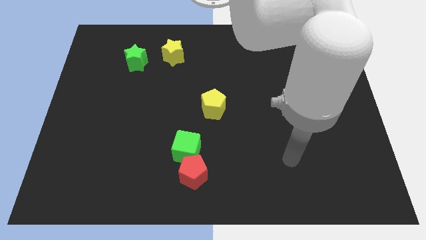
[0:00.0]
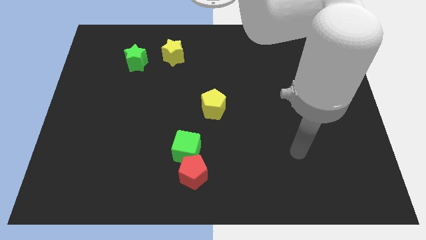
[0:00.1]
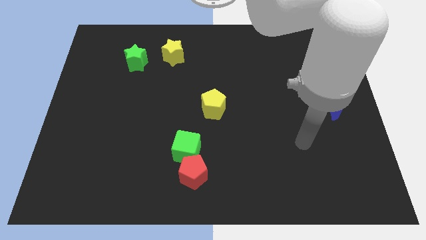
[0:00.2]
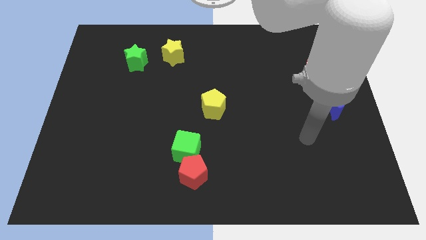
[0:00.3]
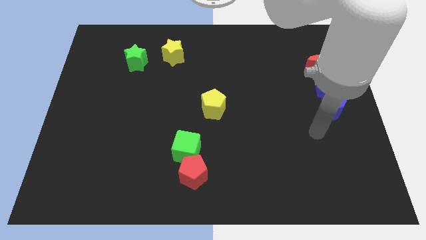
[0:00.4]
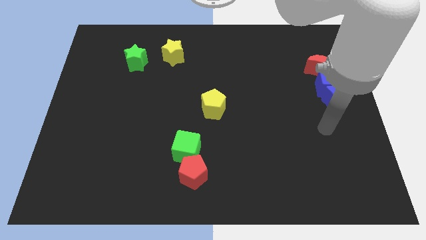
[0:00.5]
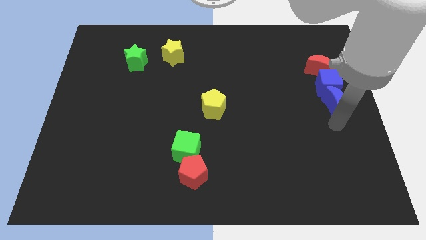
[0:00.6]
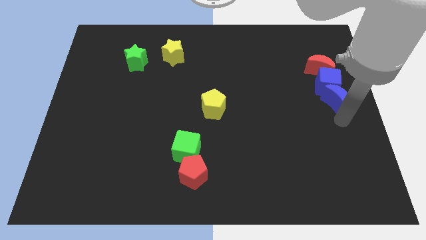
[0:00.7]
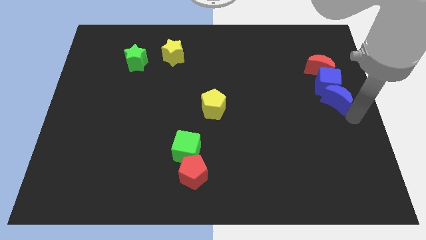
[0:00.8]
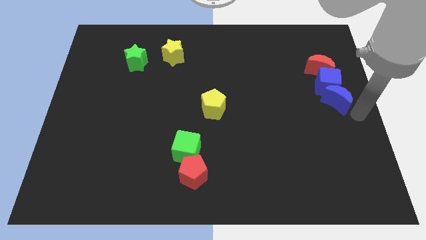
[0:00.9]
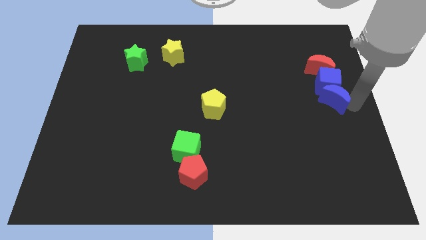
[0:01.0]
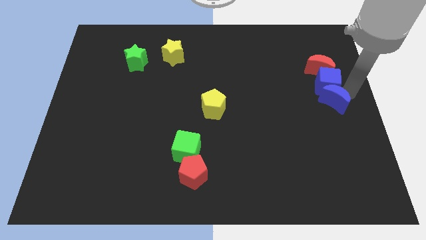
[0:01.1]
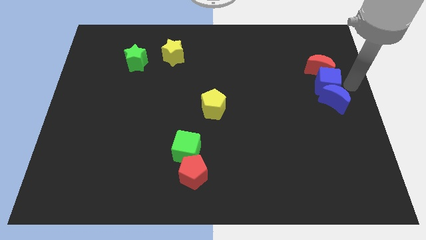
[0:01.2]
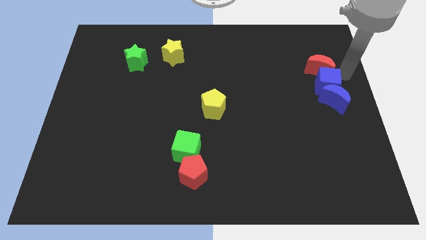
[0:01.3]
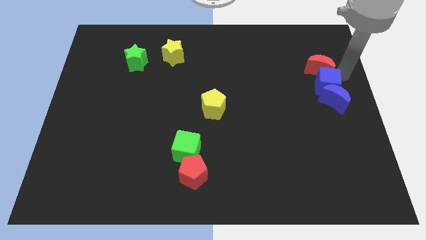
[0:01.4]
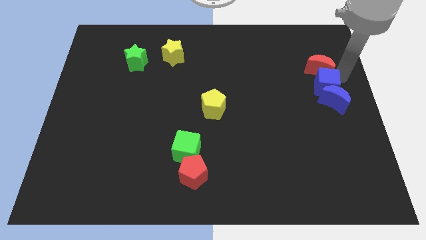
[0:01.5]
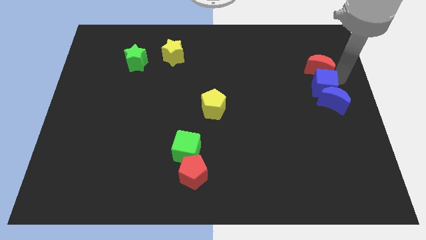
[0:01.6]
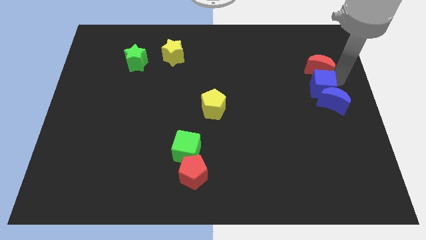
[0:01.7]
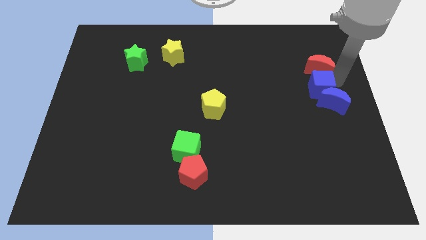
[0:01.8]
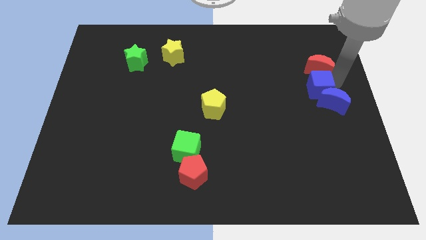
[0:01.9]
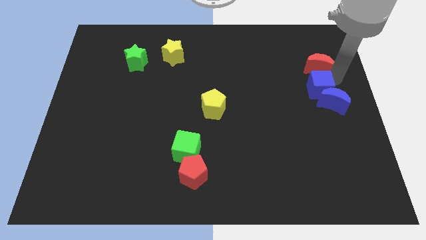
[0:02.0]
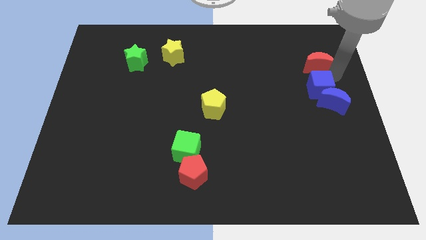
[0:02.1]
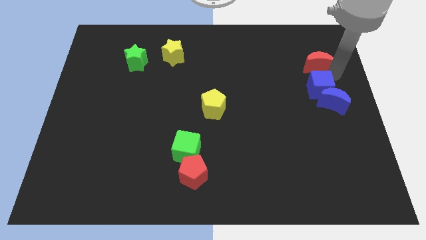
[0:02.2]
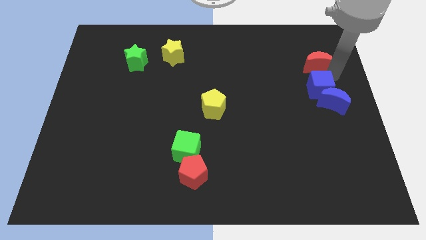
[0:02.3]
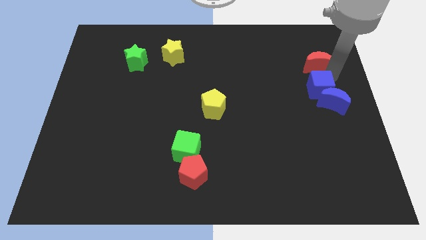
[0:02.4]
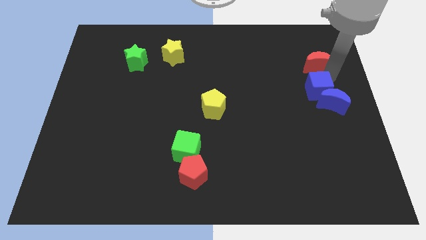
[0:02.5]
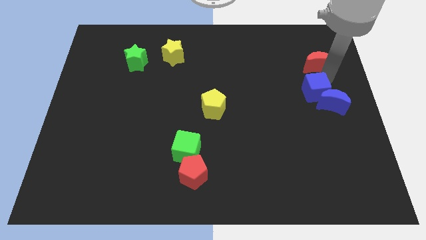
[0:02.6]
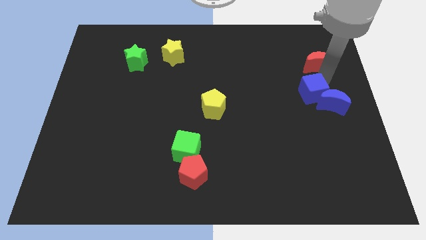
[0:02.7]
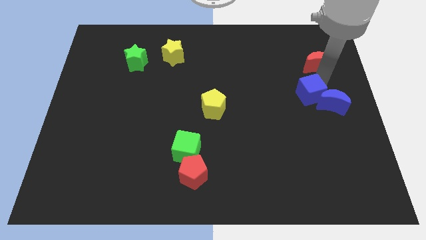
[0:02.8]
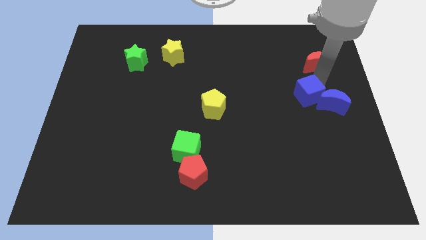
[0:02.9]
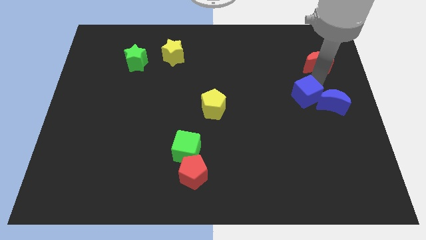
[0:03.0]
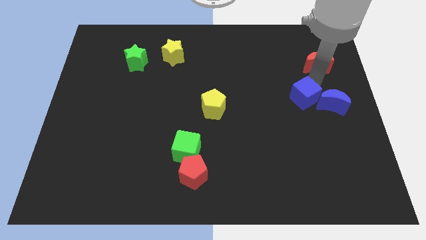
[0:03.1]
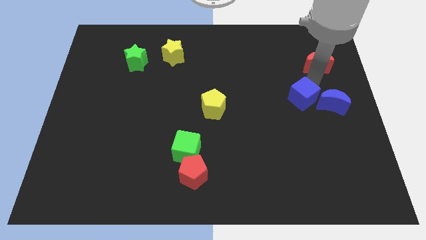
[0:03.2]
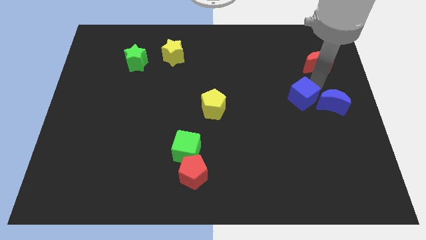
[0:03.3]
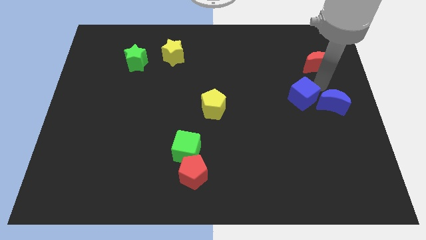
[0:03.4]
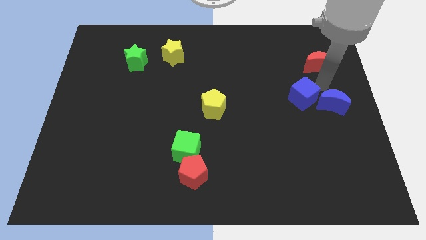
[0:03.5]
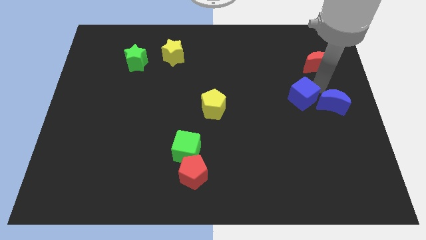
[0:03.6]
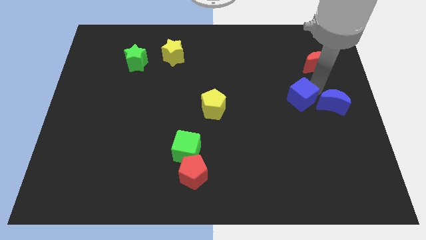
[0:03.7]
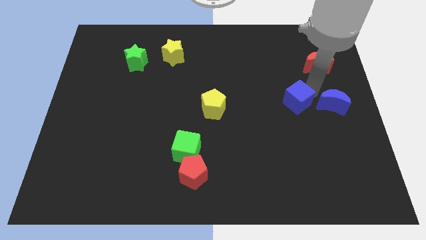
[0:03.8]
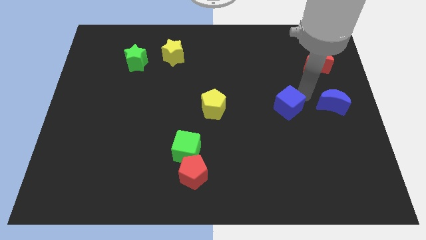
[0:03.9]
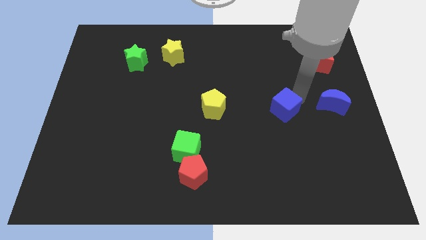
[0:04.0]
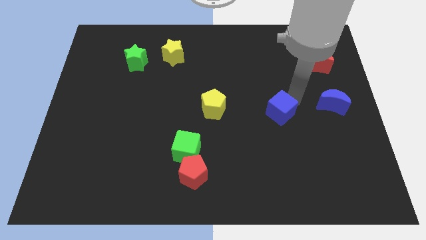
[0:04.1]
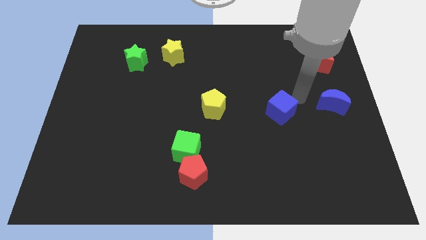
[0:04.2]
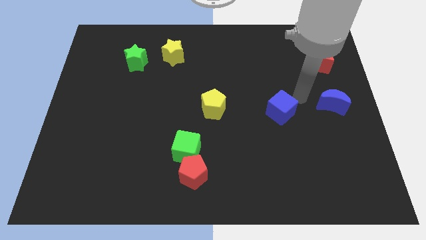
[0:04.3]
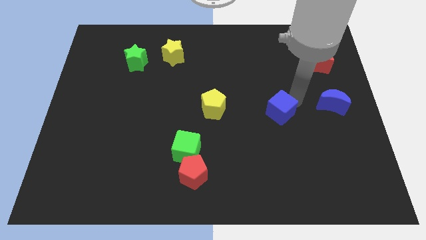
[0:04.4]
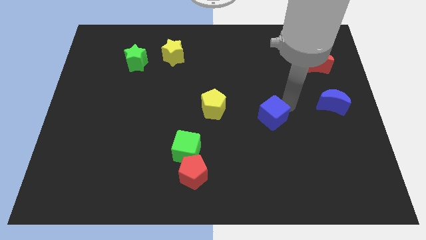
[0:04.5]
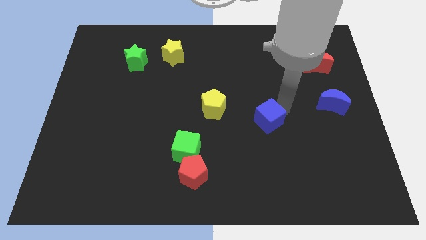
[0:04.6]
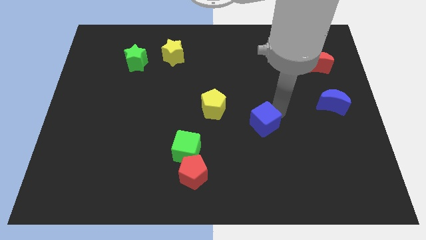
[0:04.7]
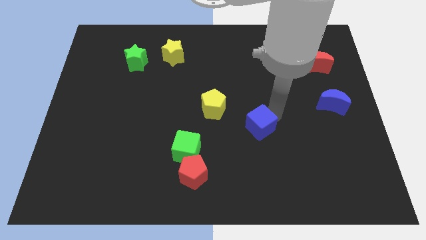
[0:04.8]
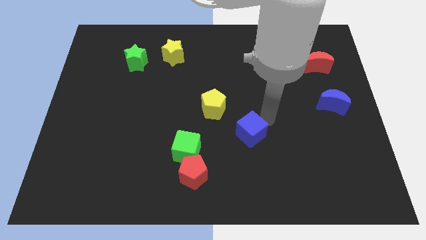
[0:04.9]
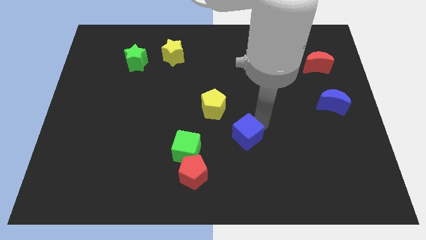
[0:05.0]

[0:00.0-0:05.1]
move the blue cube to the right side of the green cube

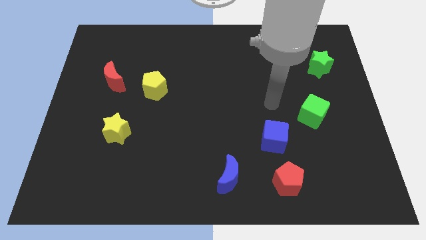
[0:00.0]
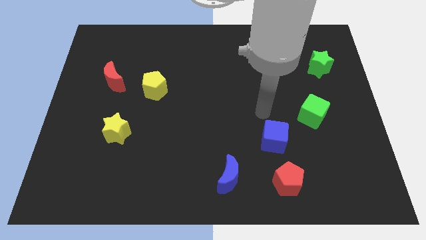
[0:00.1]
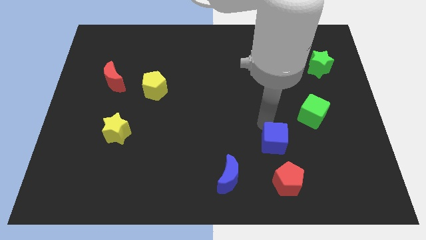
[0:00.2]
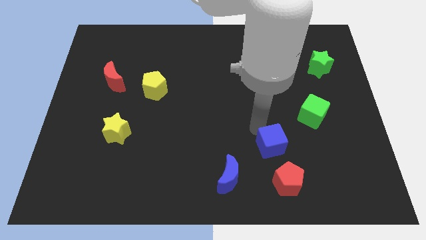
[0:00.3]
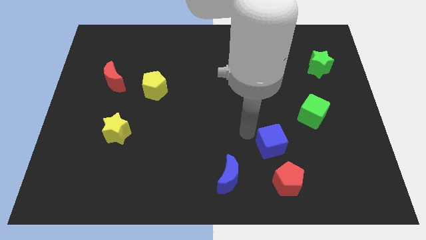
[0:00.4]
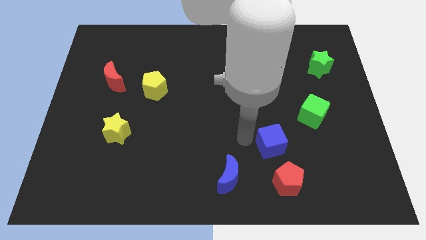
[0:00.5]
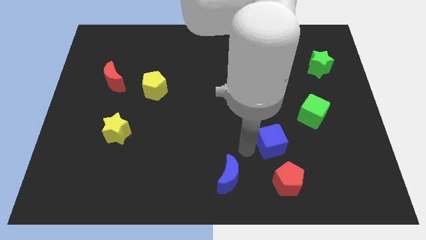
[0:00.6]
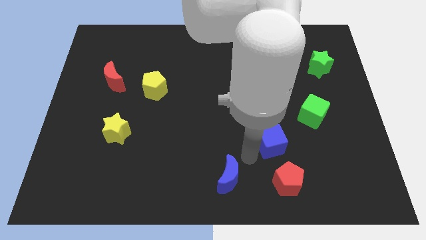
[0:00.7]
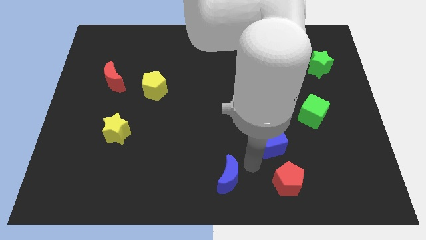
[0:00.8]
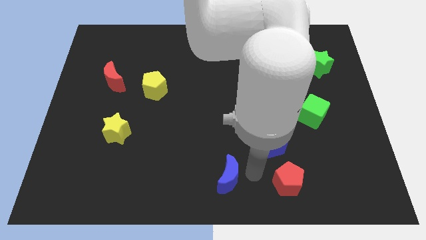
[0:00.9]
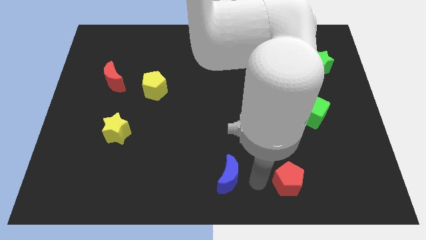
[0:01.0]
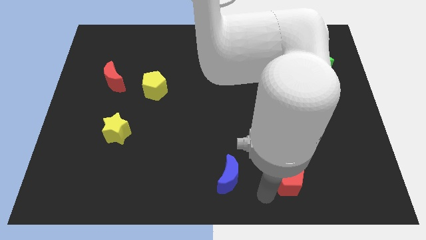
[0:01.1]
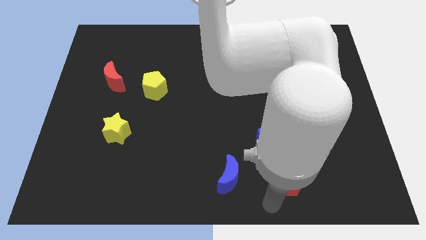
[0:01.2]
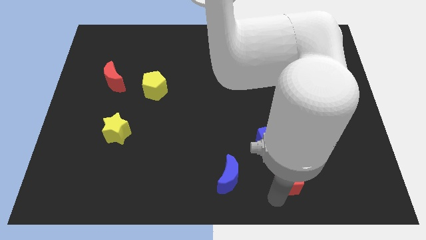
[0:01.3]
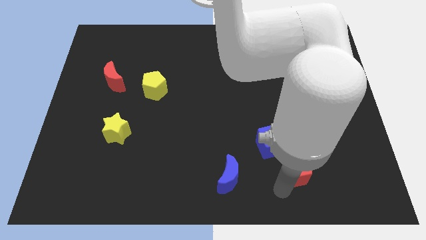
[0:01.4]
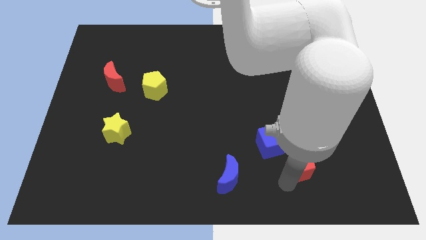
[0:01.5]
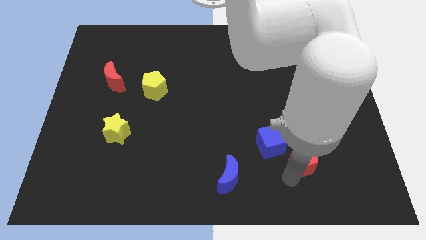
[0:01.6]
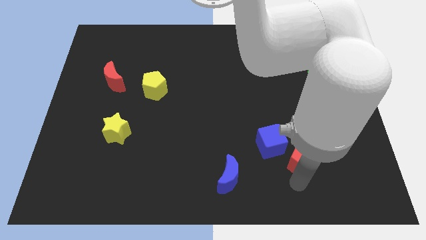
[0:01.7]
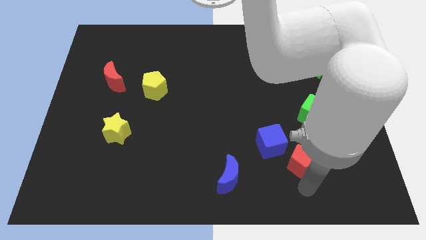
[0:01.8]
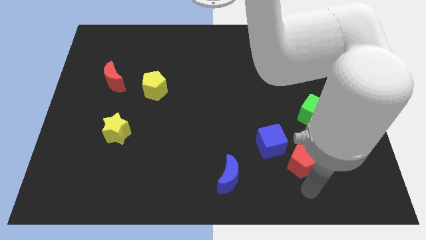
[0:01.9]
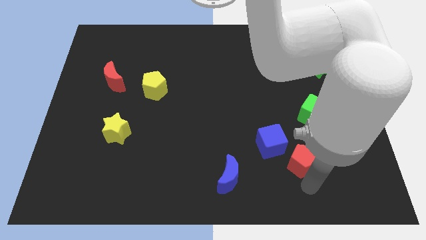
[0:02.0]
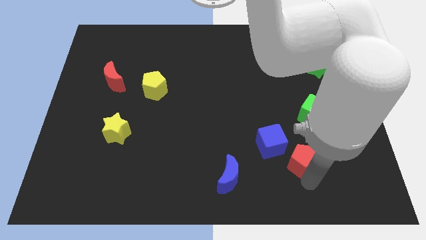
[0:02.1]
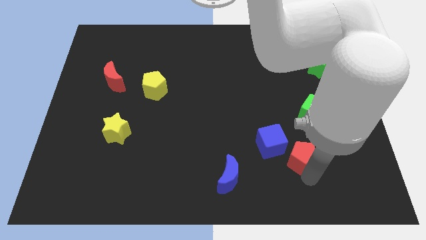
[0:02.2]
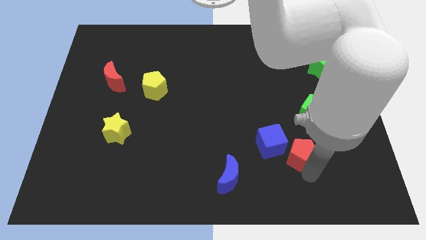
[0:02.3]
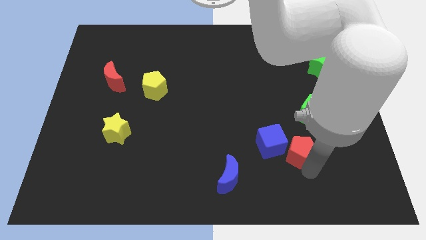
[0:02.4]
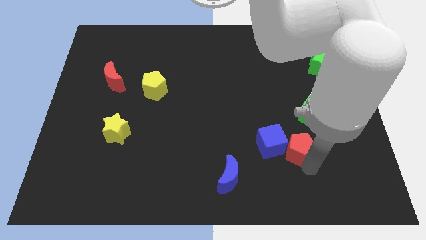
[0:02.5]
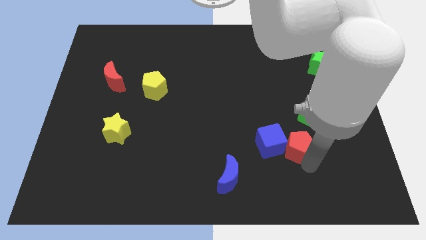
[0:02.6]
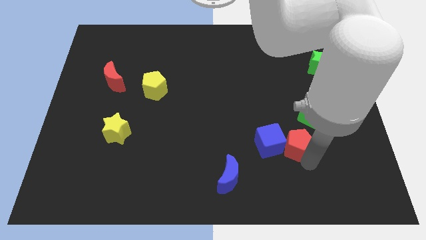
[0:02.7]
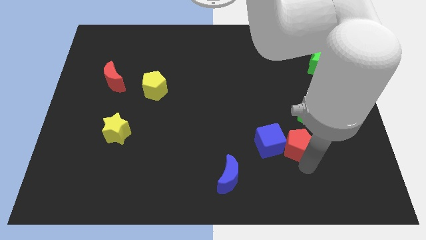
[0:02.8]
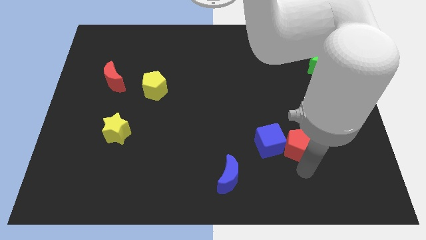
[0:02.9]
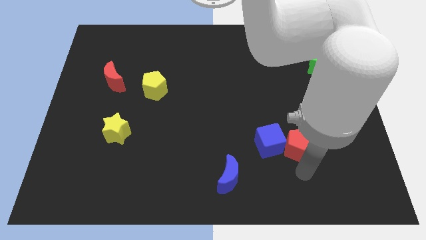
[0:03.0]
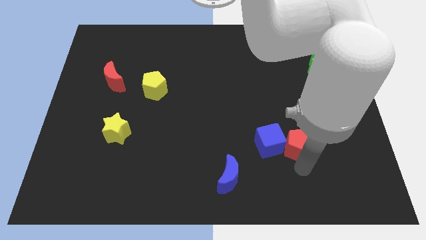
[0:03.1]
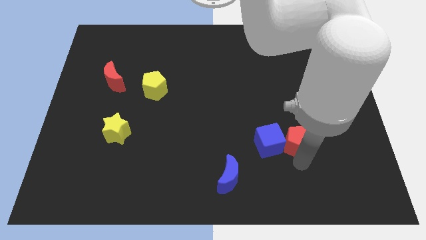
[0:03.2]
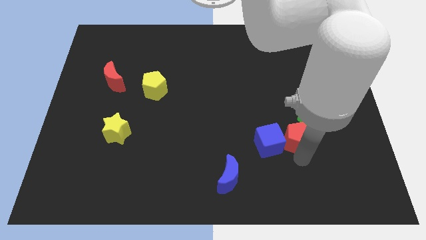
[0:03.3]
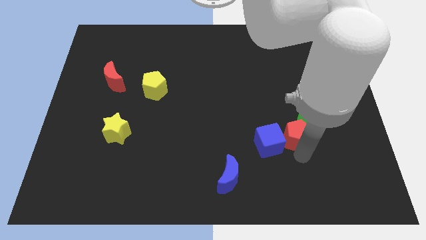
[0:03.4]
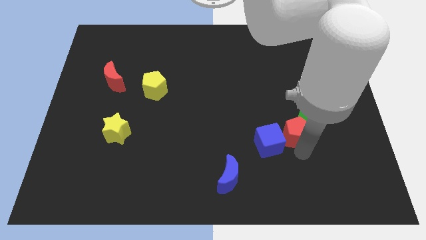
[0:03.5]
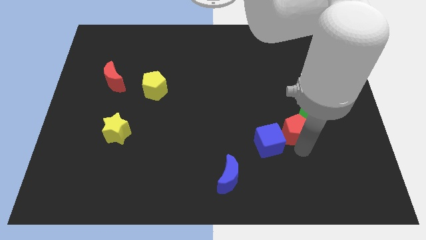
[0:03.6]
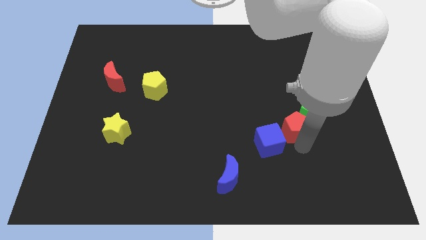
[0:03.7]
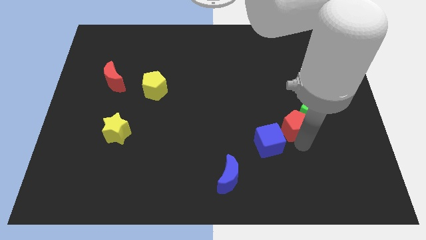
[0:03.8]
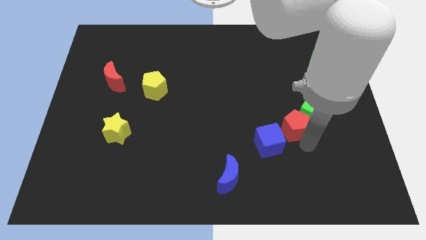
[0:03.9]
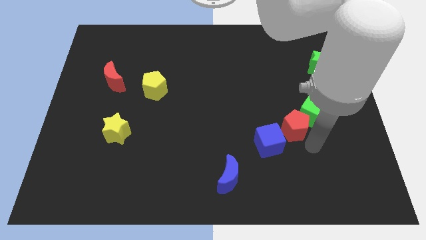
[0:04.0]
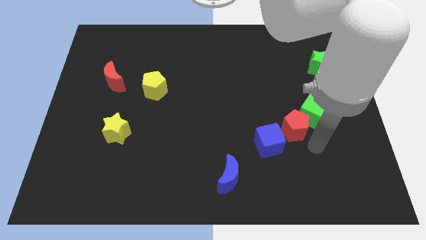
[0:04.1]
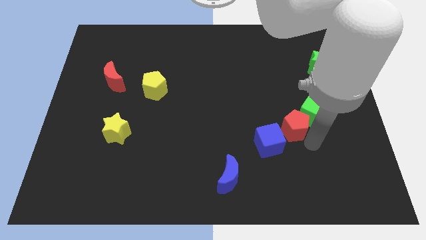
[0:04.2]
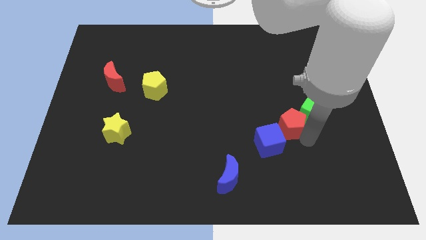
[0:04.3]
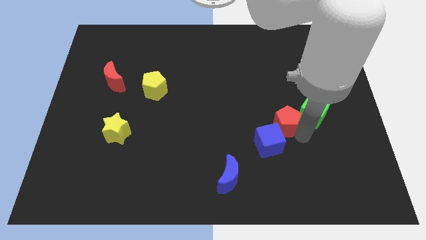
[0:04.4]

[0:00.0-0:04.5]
move the red pentagon to the top side of the blue cube
